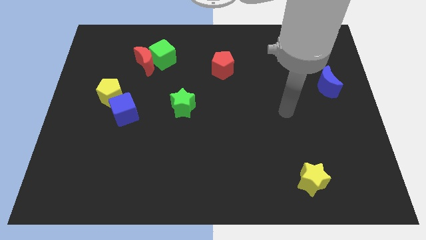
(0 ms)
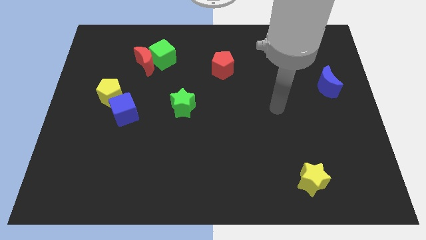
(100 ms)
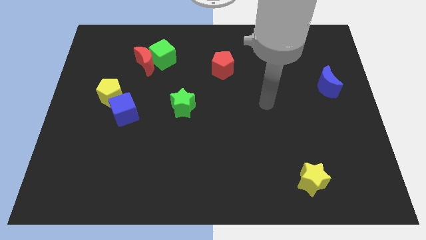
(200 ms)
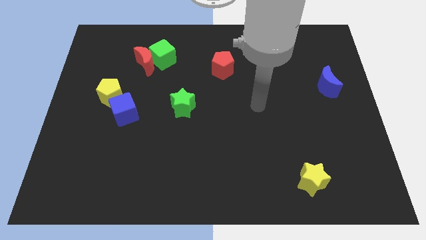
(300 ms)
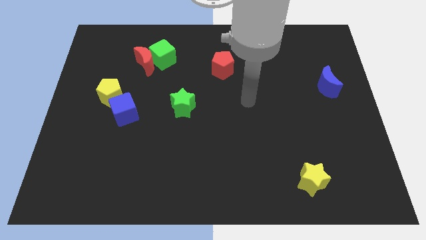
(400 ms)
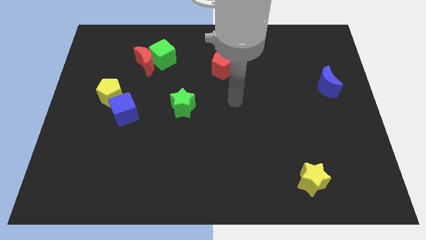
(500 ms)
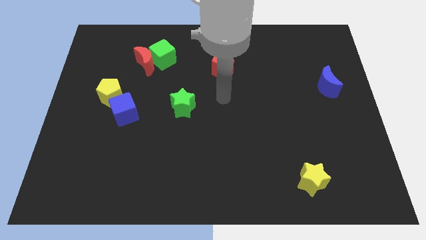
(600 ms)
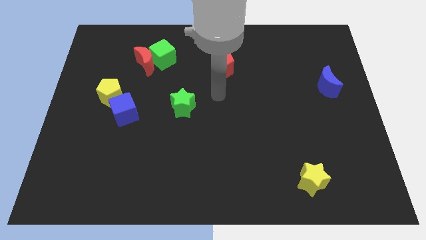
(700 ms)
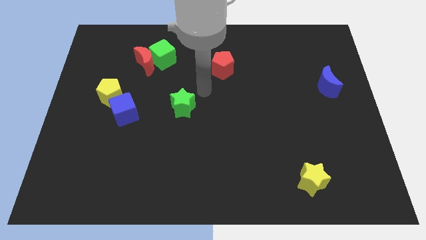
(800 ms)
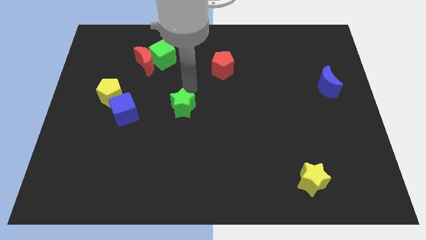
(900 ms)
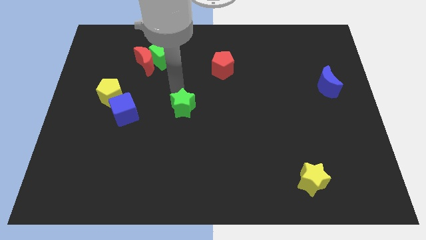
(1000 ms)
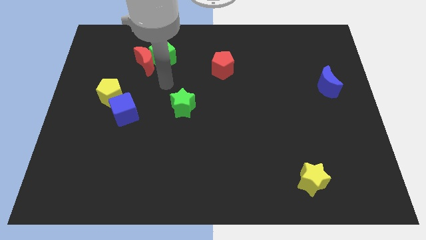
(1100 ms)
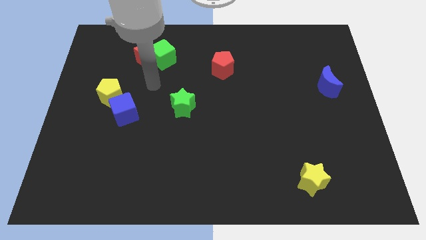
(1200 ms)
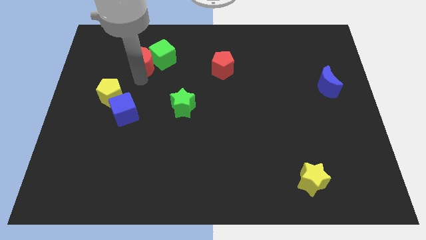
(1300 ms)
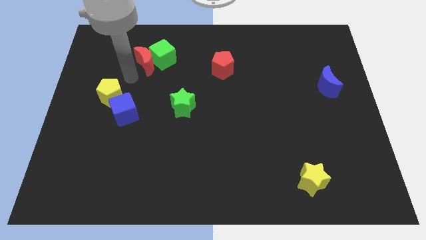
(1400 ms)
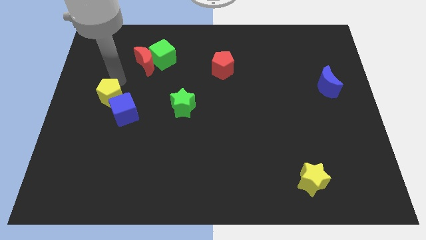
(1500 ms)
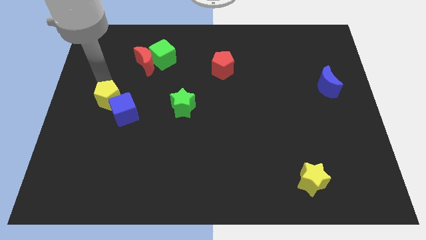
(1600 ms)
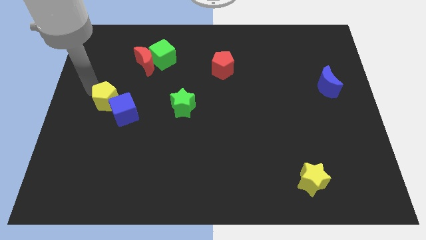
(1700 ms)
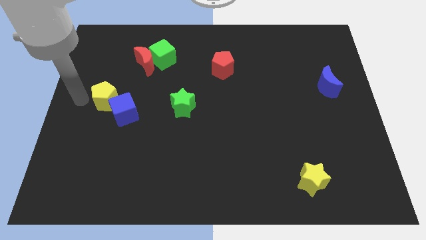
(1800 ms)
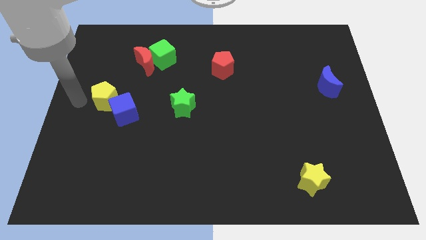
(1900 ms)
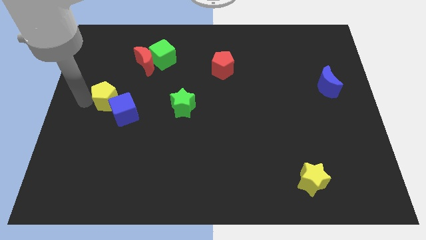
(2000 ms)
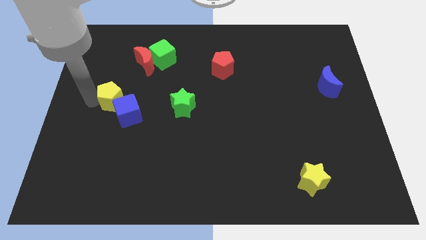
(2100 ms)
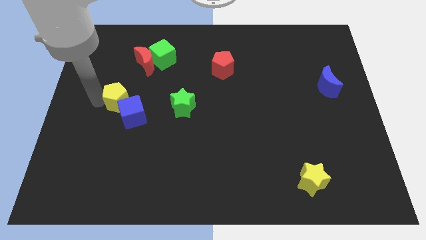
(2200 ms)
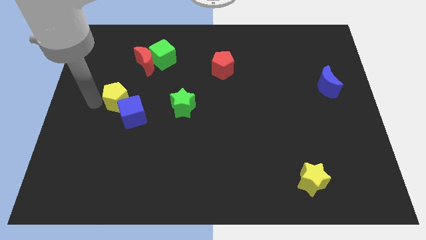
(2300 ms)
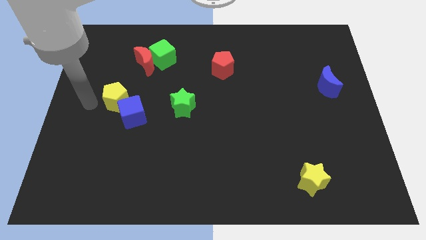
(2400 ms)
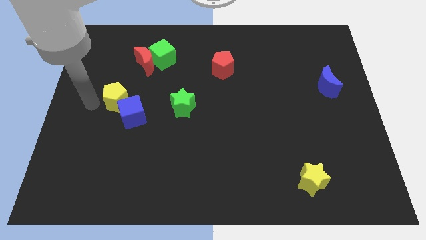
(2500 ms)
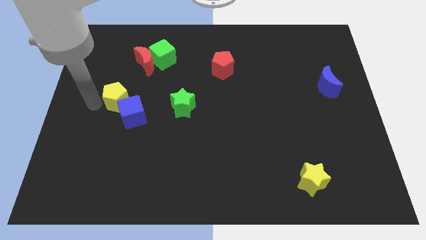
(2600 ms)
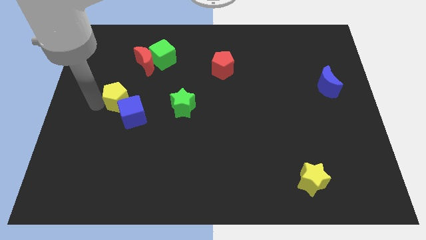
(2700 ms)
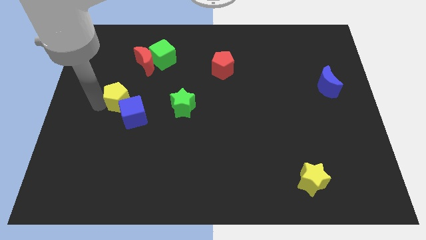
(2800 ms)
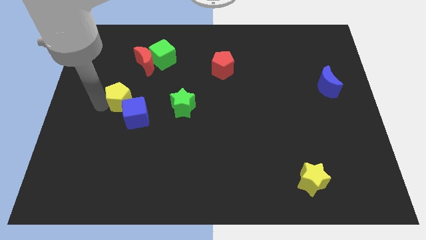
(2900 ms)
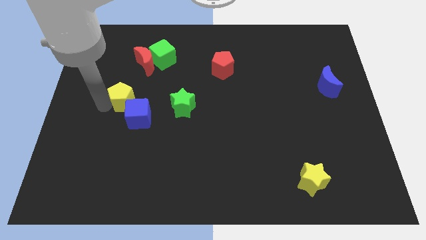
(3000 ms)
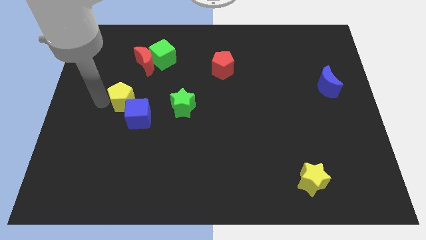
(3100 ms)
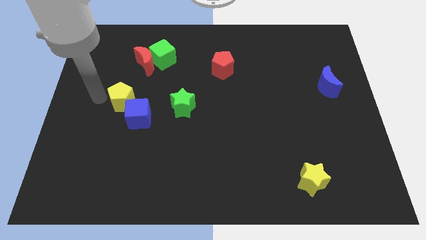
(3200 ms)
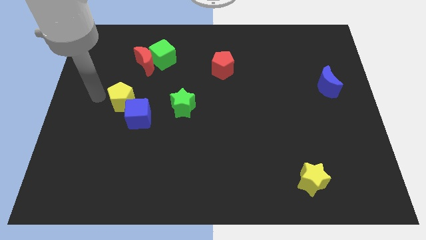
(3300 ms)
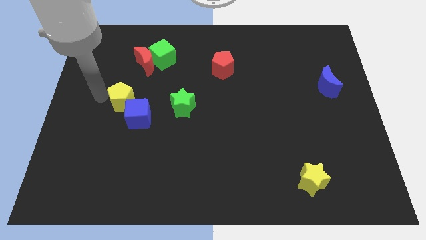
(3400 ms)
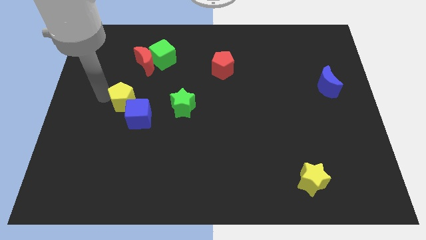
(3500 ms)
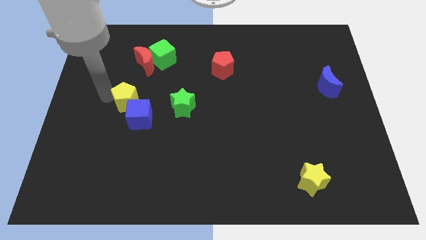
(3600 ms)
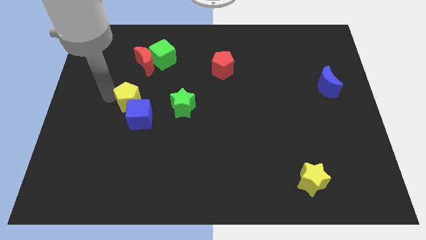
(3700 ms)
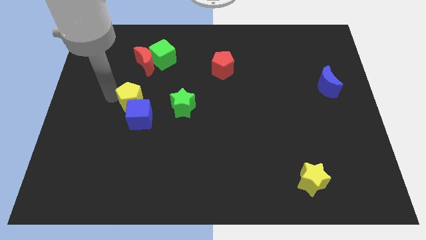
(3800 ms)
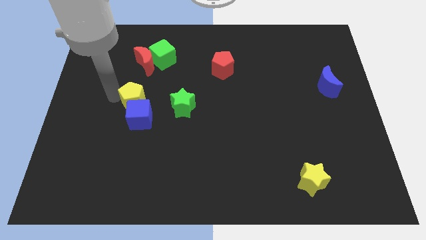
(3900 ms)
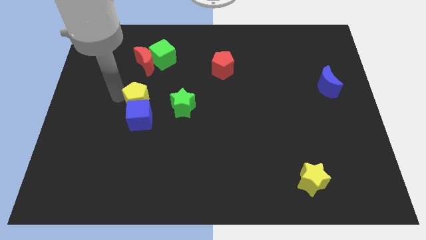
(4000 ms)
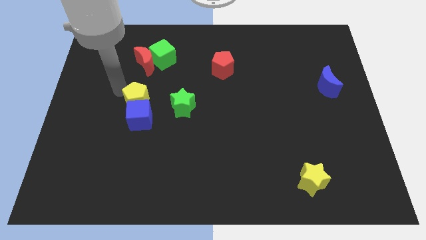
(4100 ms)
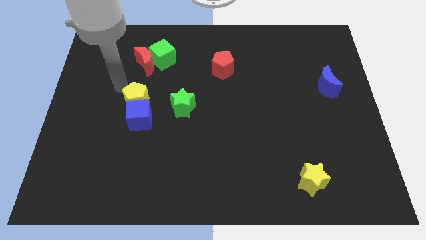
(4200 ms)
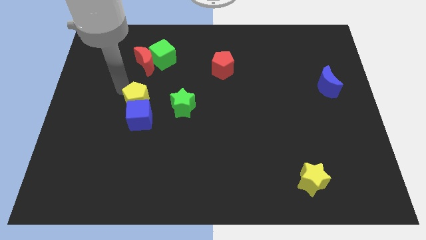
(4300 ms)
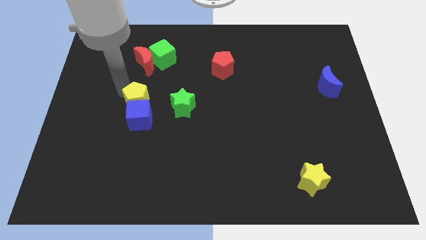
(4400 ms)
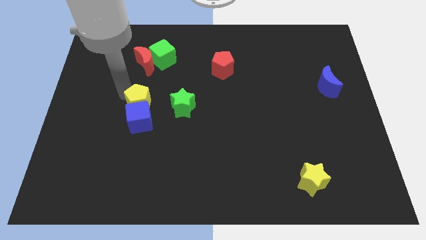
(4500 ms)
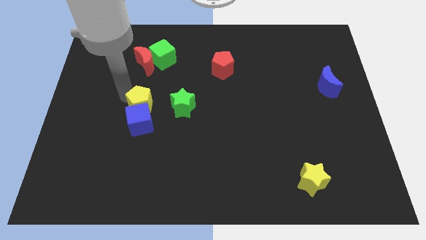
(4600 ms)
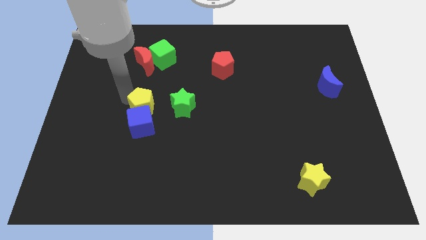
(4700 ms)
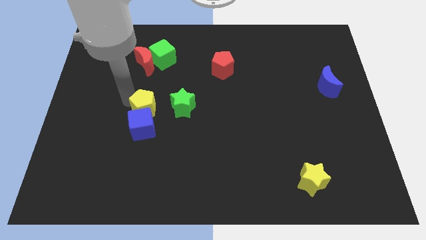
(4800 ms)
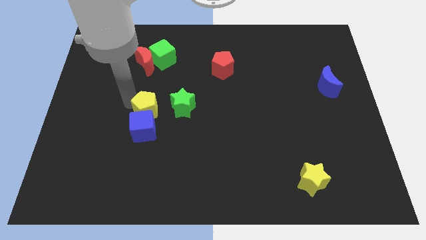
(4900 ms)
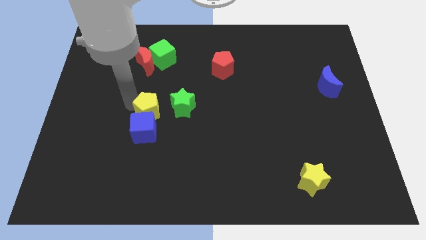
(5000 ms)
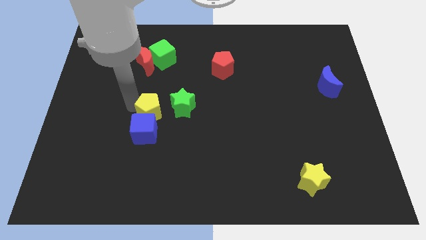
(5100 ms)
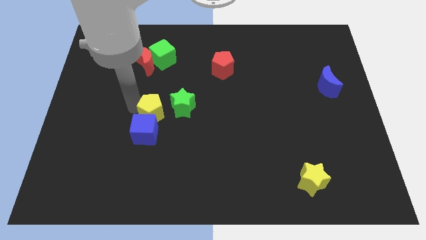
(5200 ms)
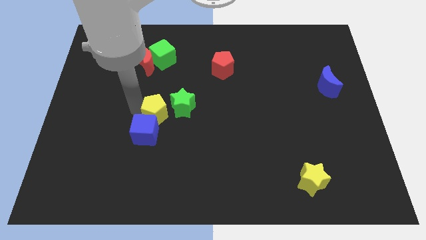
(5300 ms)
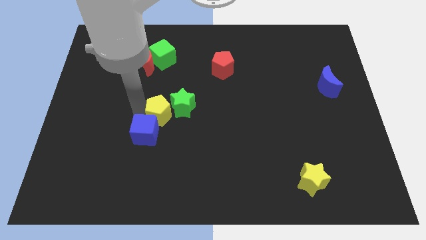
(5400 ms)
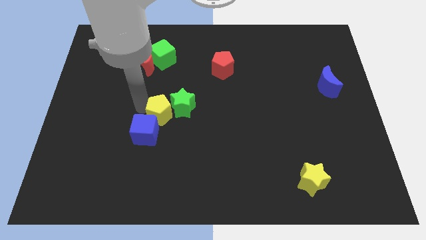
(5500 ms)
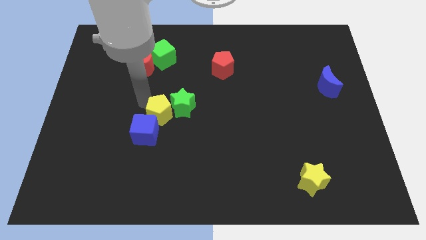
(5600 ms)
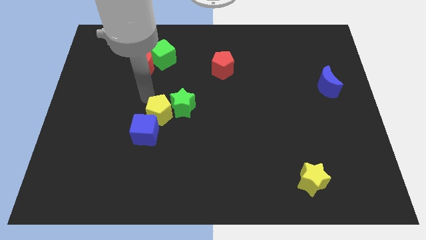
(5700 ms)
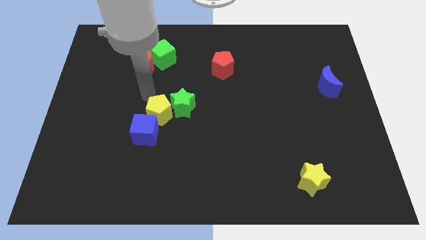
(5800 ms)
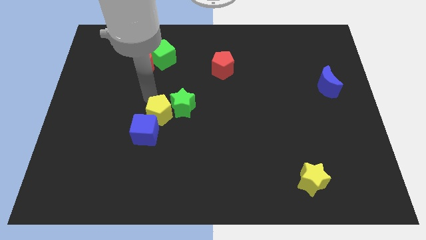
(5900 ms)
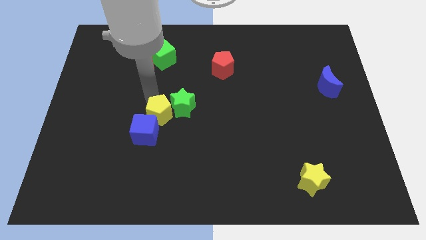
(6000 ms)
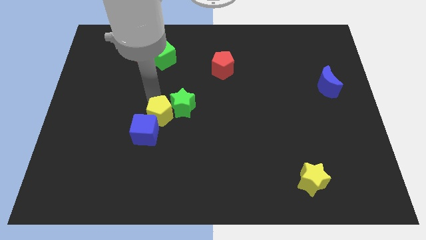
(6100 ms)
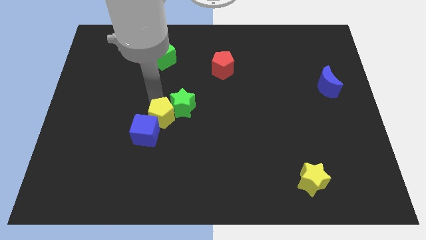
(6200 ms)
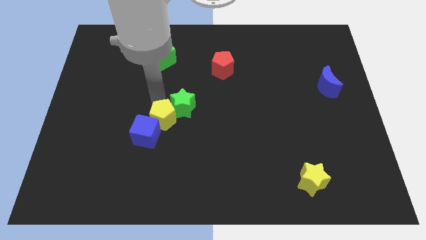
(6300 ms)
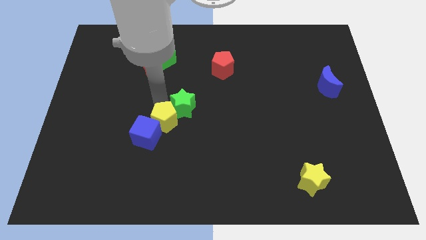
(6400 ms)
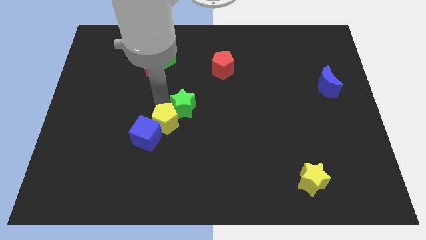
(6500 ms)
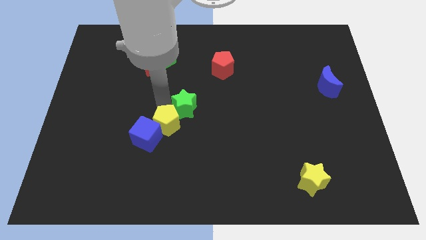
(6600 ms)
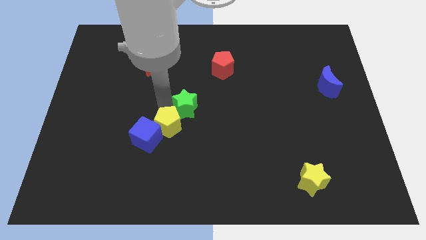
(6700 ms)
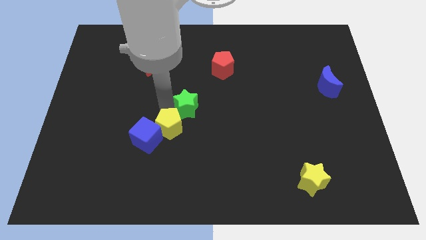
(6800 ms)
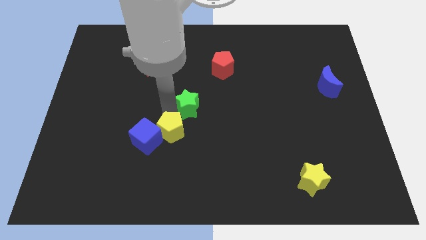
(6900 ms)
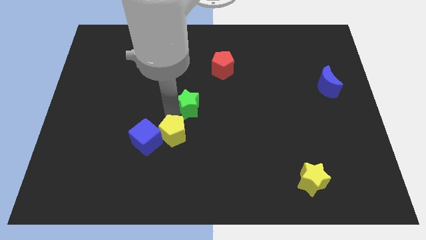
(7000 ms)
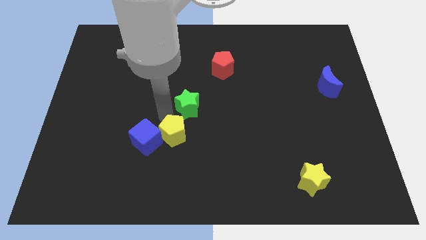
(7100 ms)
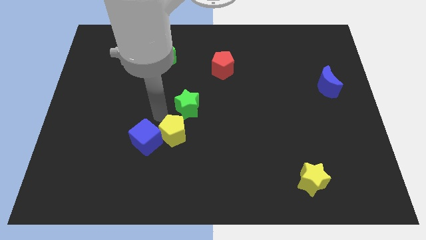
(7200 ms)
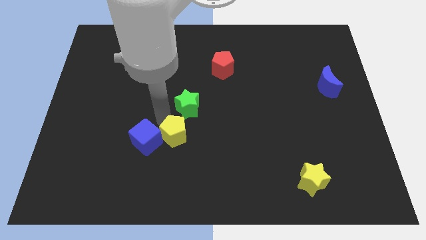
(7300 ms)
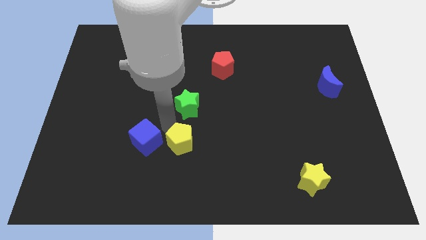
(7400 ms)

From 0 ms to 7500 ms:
push the yellow pentagon down and then right

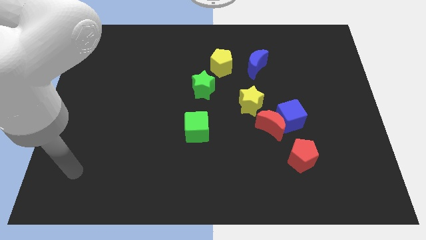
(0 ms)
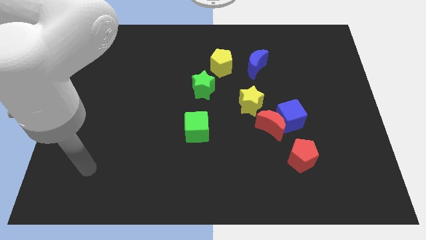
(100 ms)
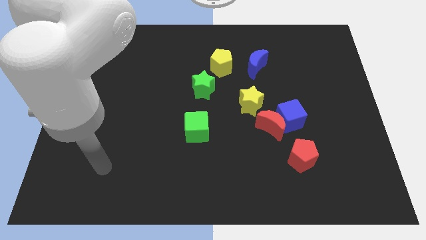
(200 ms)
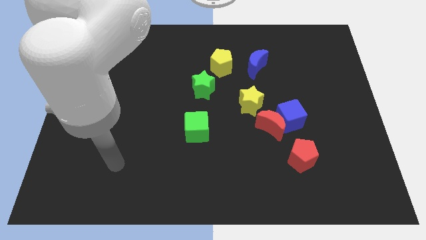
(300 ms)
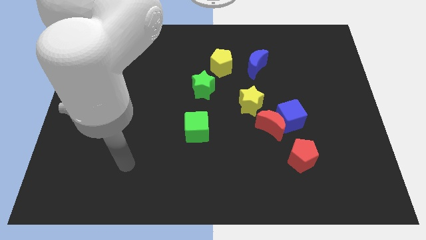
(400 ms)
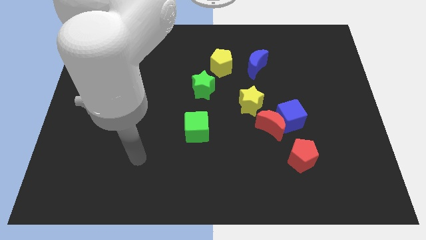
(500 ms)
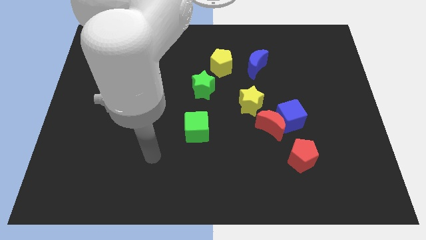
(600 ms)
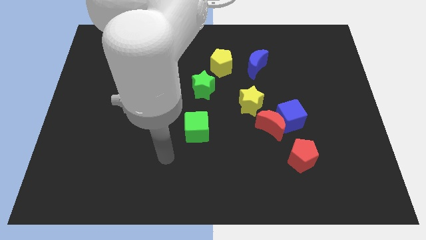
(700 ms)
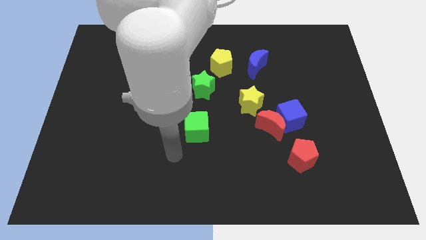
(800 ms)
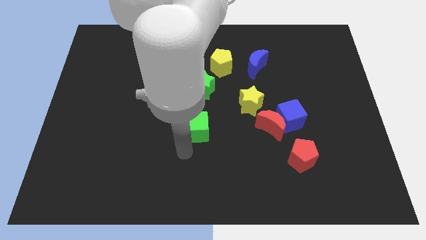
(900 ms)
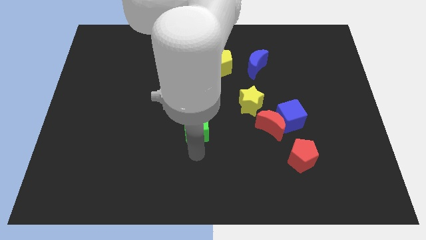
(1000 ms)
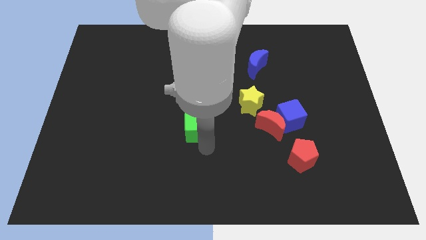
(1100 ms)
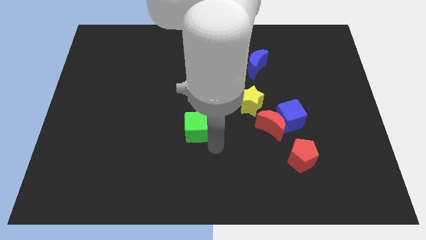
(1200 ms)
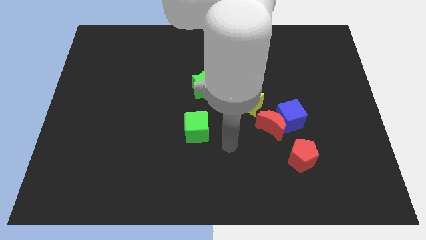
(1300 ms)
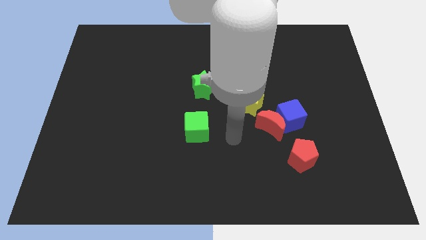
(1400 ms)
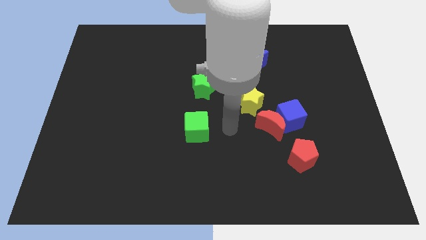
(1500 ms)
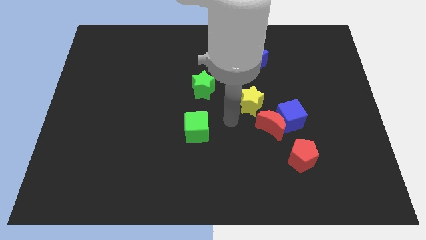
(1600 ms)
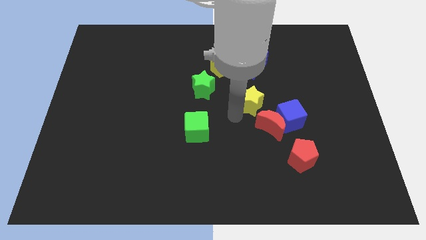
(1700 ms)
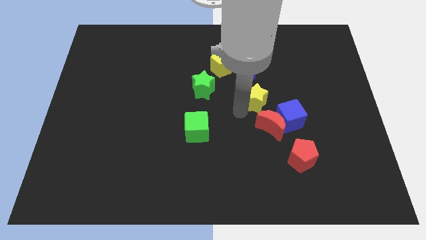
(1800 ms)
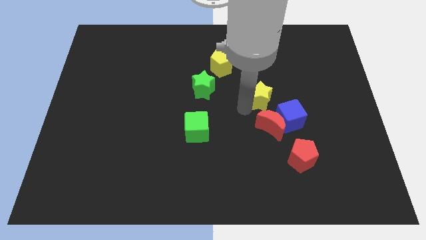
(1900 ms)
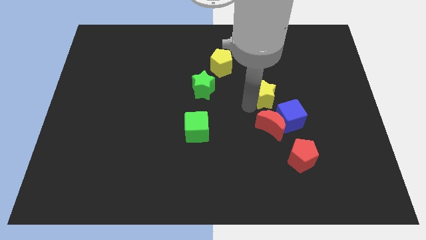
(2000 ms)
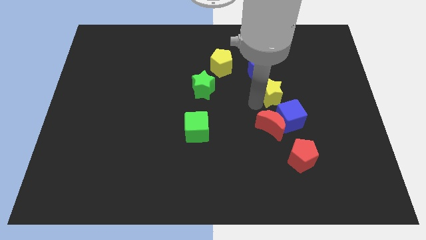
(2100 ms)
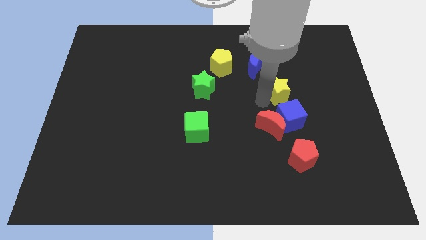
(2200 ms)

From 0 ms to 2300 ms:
slightly push the yellow star upwards and right diagonally
